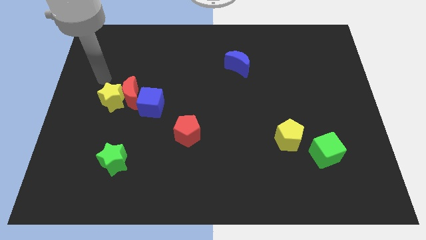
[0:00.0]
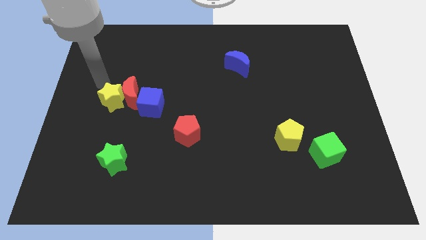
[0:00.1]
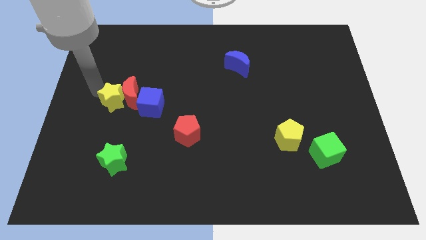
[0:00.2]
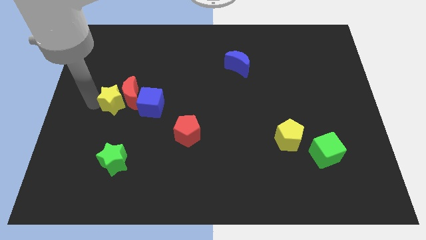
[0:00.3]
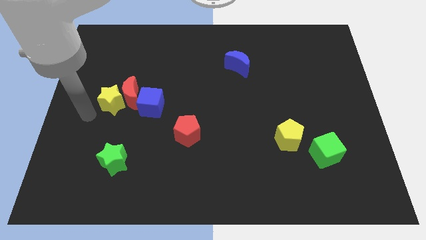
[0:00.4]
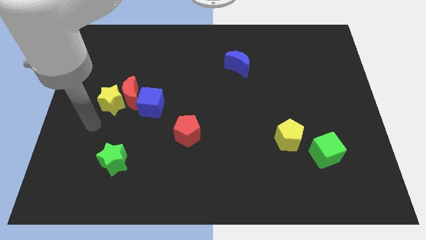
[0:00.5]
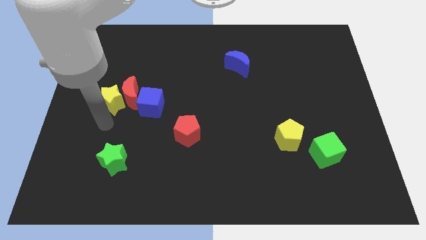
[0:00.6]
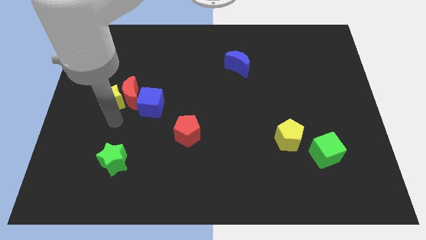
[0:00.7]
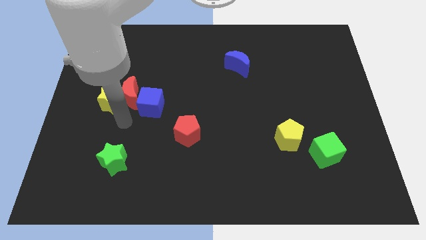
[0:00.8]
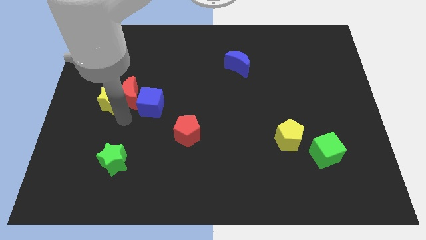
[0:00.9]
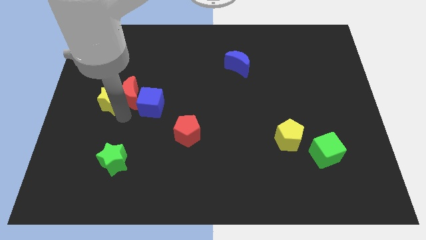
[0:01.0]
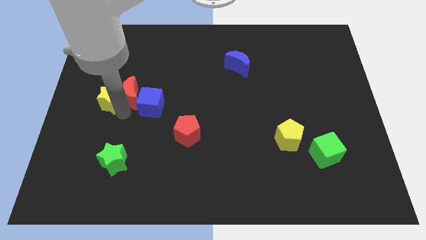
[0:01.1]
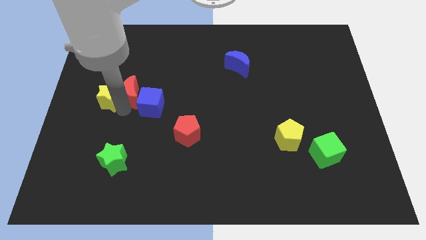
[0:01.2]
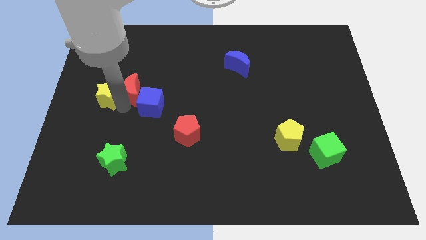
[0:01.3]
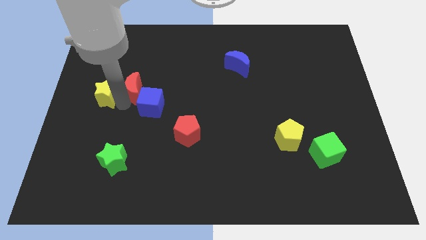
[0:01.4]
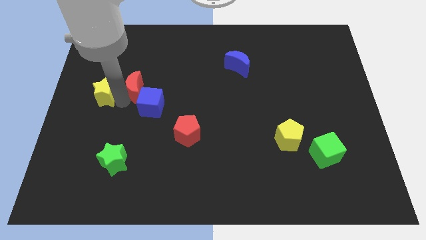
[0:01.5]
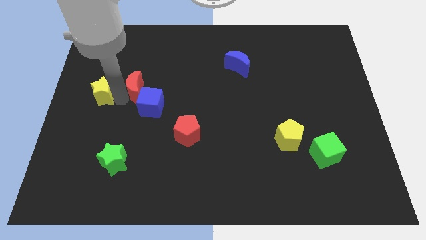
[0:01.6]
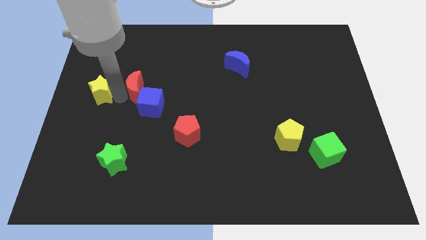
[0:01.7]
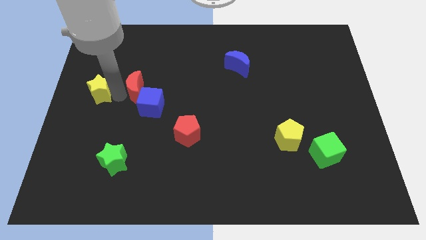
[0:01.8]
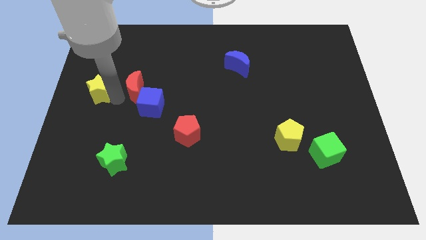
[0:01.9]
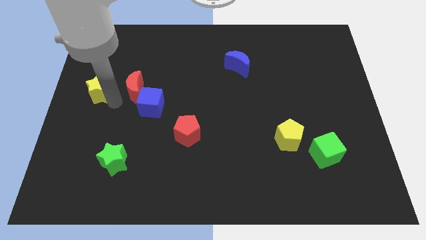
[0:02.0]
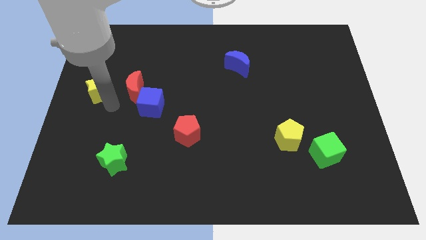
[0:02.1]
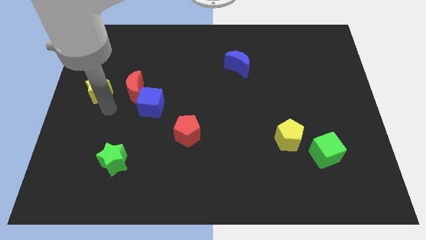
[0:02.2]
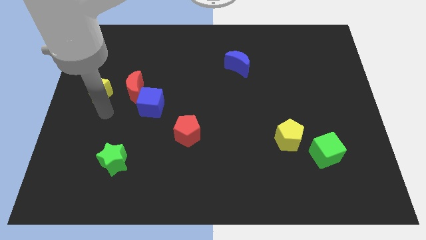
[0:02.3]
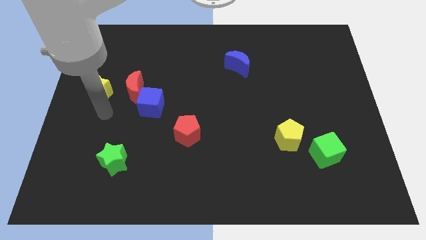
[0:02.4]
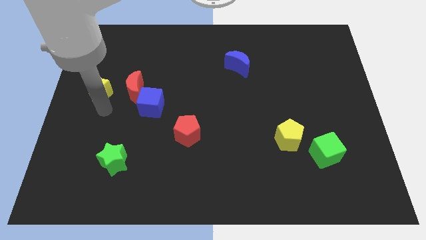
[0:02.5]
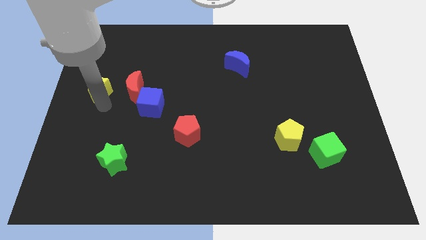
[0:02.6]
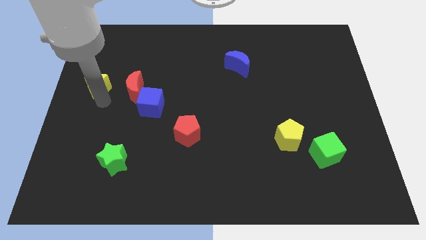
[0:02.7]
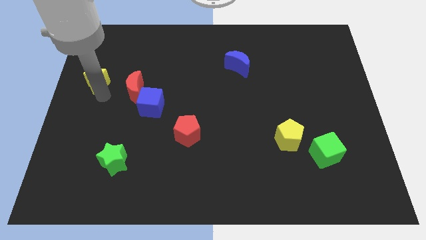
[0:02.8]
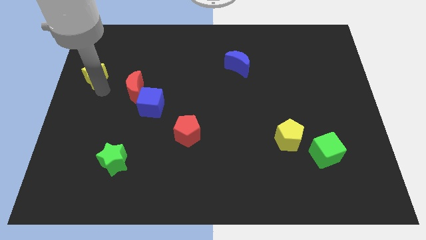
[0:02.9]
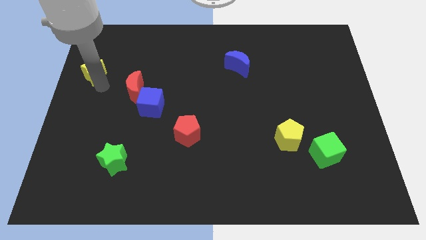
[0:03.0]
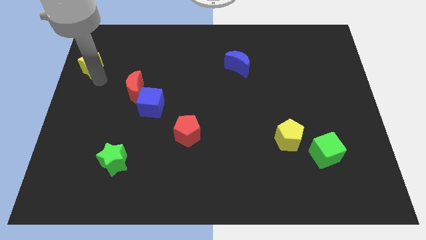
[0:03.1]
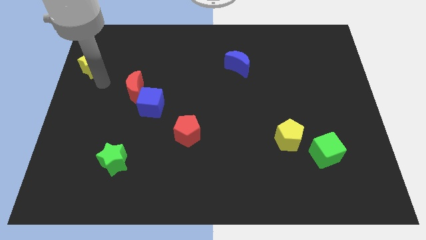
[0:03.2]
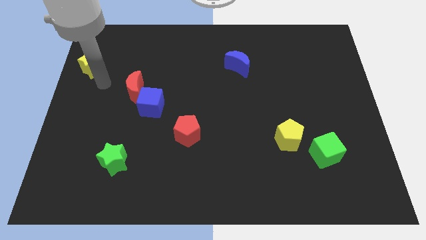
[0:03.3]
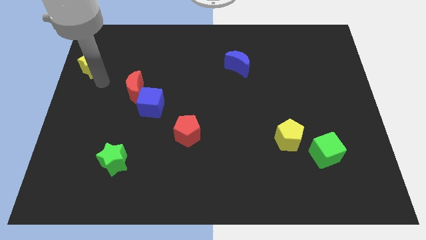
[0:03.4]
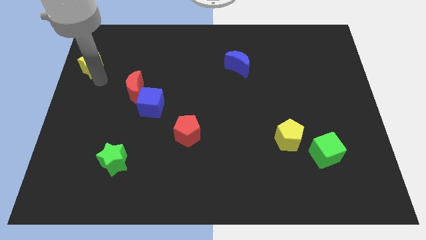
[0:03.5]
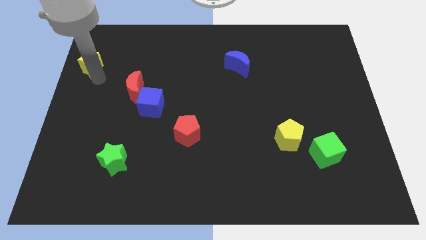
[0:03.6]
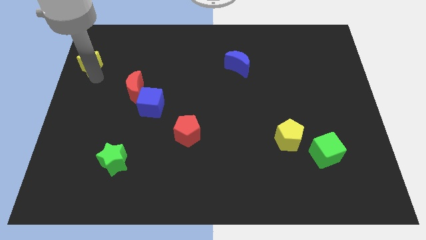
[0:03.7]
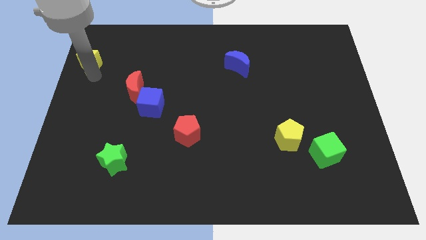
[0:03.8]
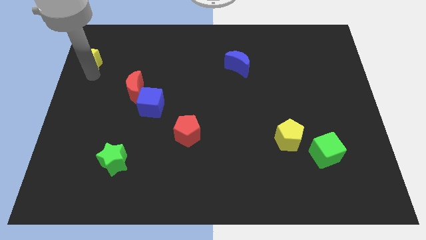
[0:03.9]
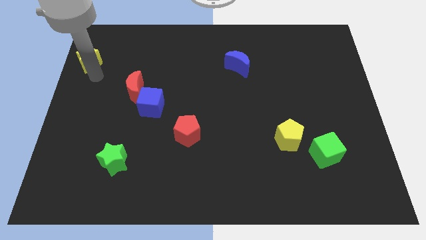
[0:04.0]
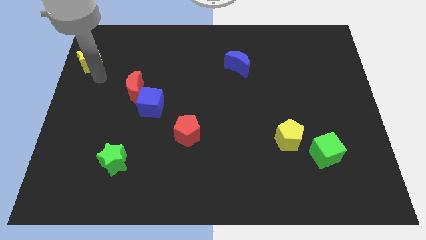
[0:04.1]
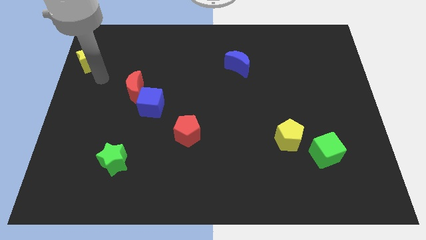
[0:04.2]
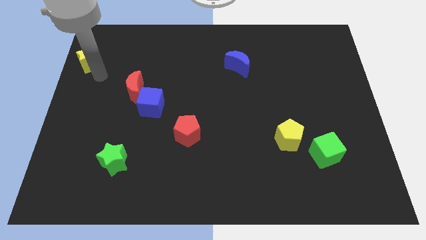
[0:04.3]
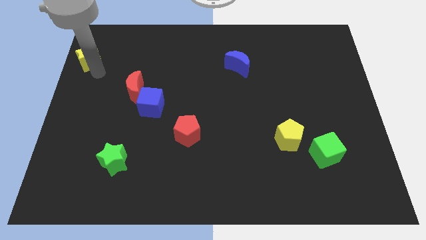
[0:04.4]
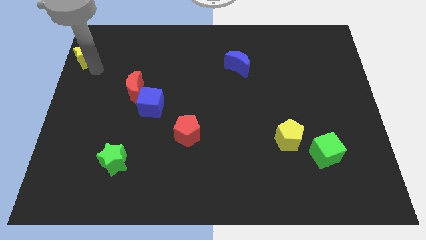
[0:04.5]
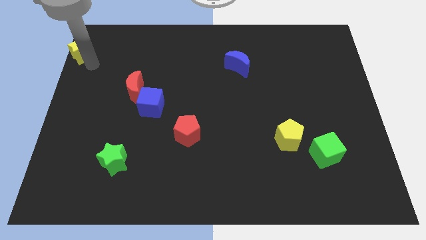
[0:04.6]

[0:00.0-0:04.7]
push the yellow star to the upper left corner

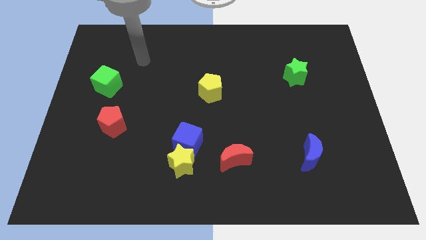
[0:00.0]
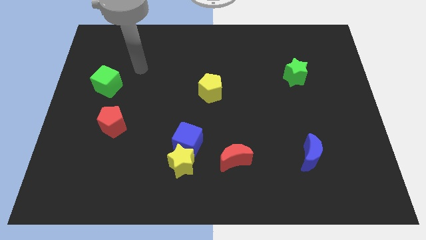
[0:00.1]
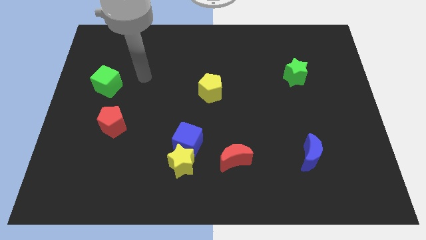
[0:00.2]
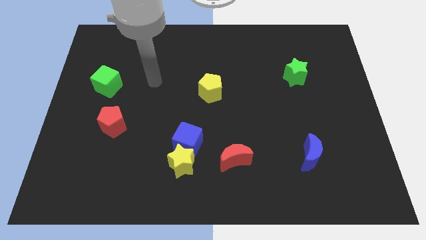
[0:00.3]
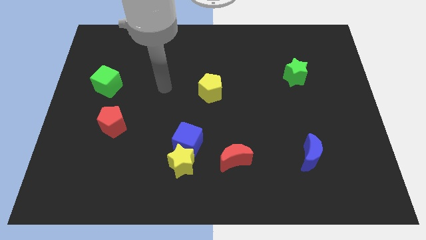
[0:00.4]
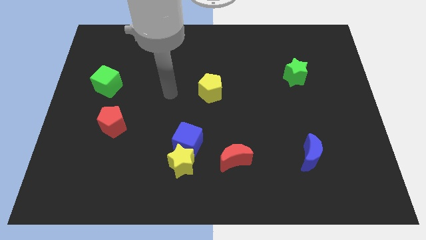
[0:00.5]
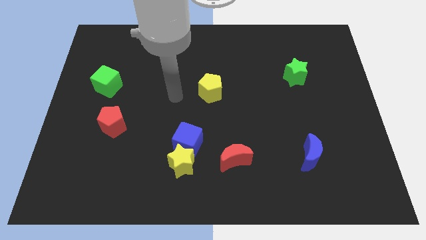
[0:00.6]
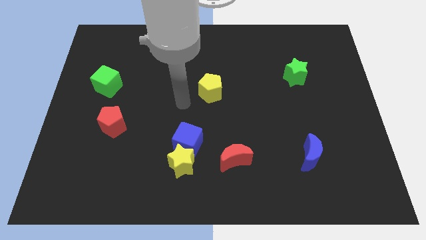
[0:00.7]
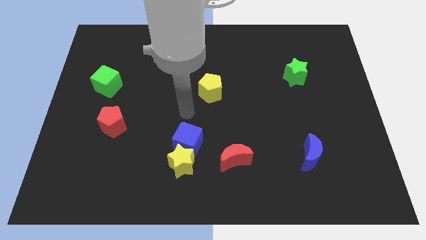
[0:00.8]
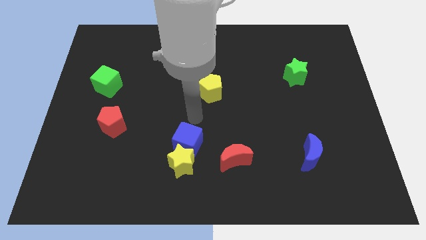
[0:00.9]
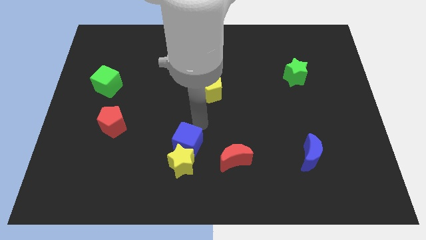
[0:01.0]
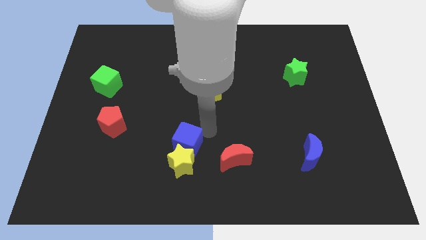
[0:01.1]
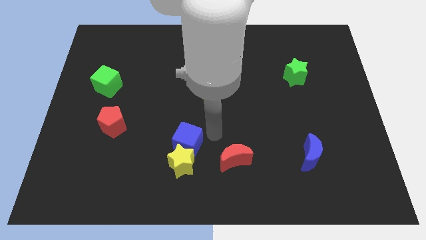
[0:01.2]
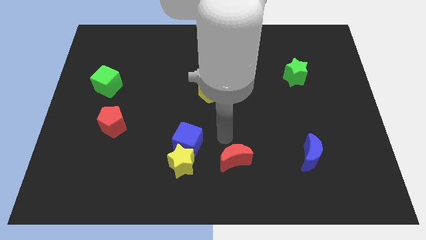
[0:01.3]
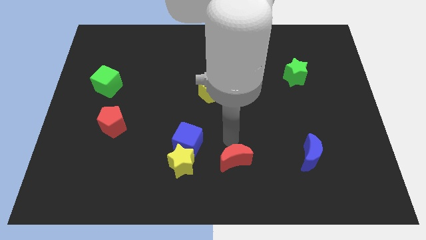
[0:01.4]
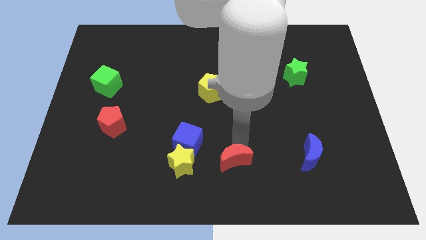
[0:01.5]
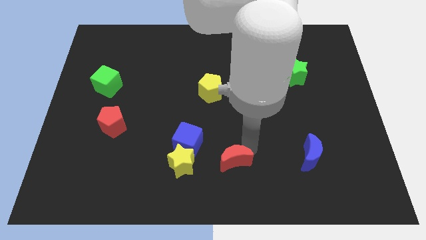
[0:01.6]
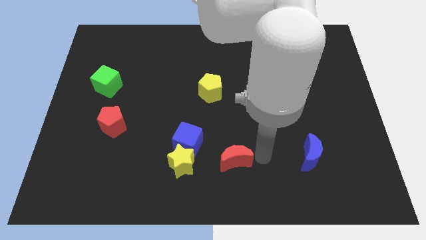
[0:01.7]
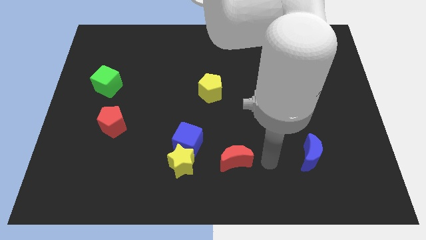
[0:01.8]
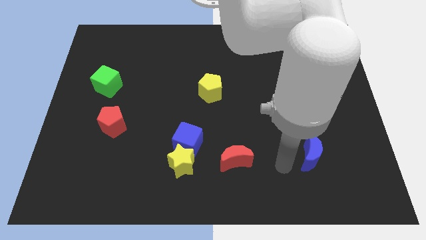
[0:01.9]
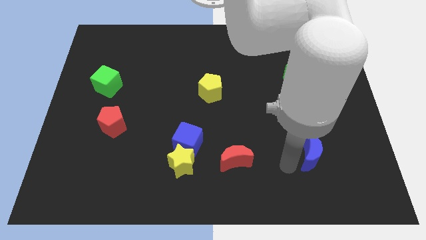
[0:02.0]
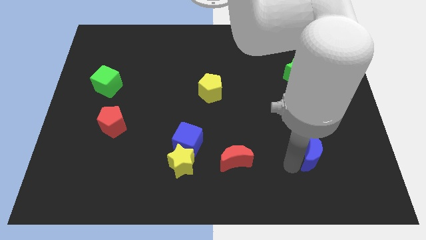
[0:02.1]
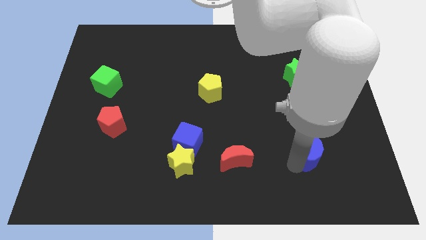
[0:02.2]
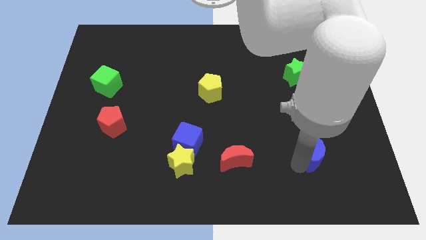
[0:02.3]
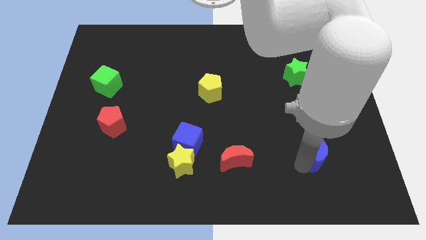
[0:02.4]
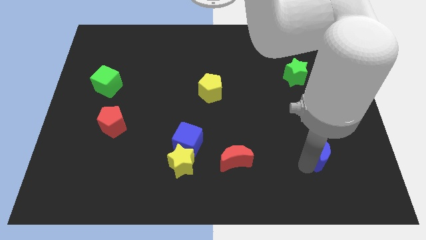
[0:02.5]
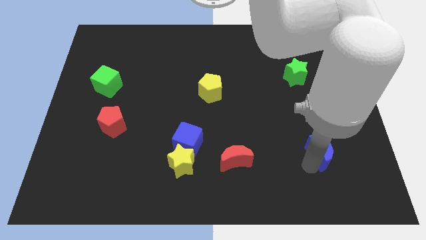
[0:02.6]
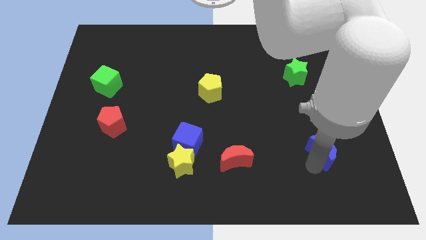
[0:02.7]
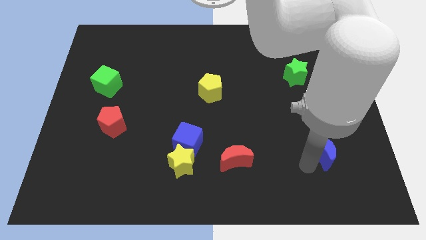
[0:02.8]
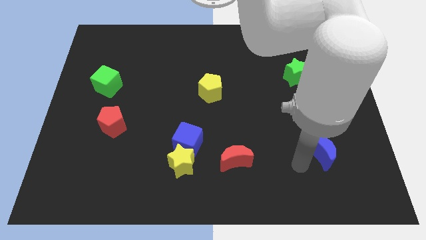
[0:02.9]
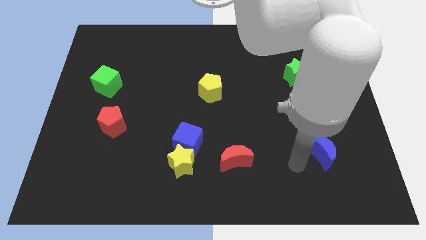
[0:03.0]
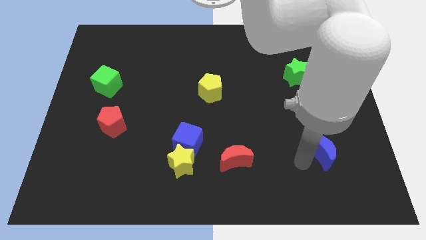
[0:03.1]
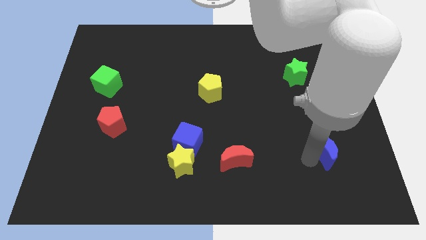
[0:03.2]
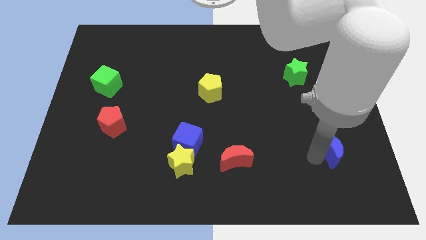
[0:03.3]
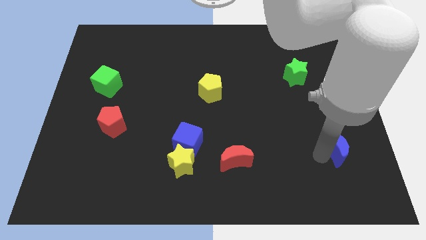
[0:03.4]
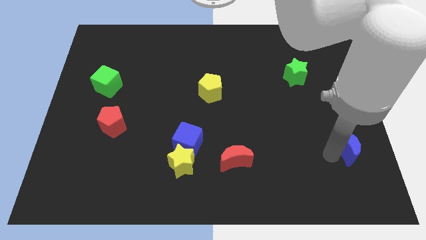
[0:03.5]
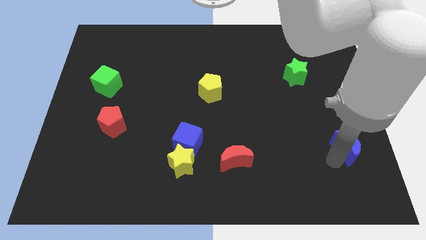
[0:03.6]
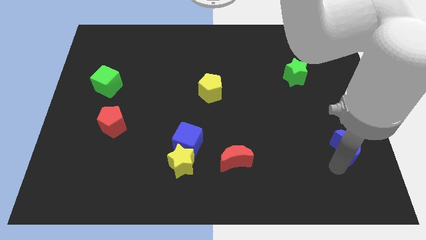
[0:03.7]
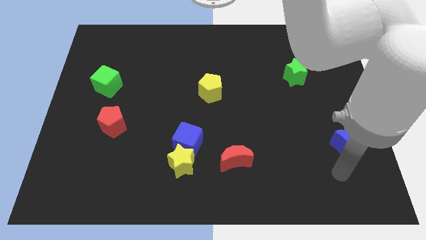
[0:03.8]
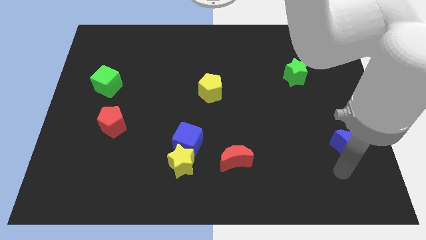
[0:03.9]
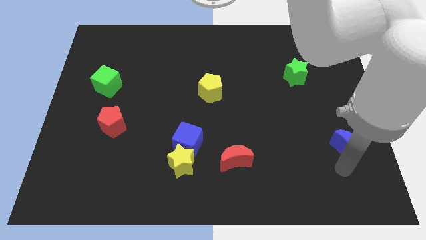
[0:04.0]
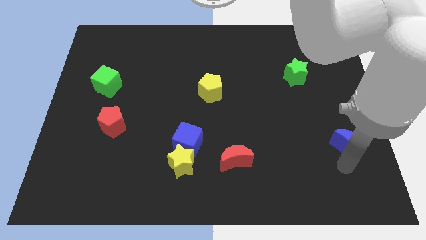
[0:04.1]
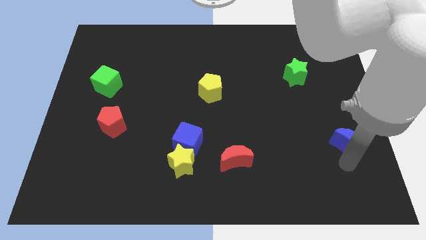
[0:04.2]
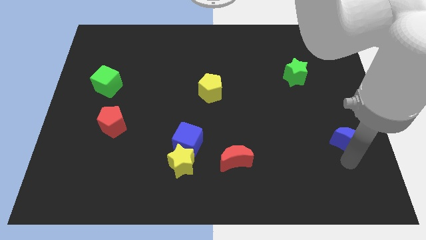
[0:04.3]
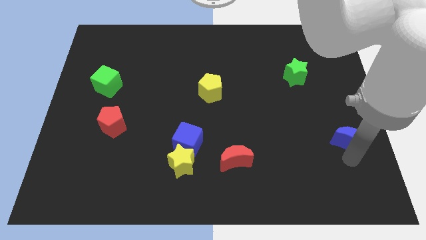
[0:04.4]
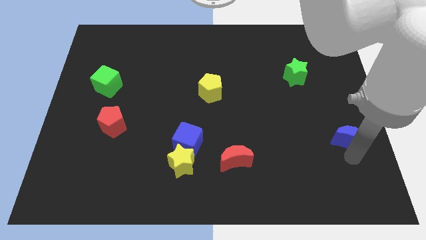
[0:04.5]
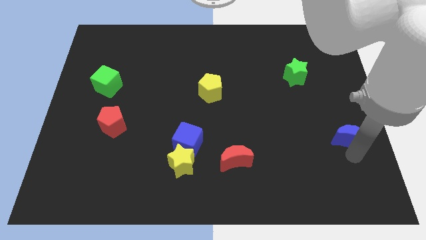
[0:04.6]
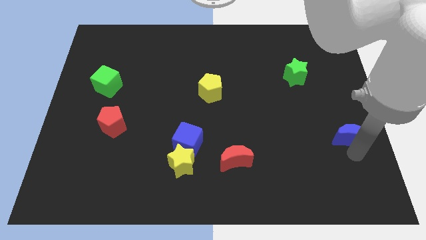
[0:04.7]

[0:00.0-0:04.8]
move the blue moon to the right side of the board
